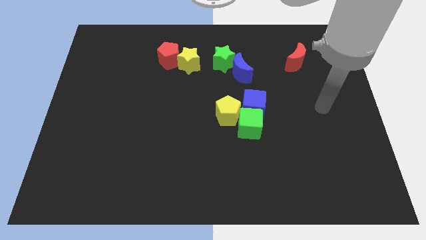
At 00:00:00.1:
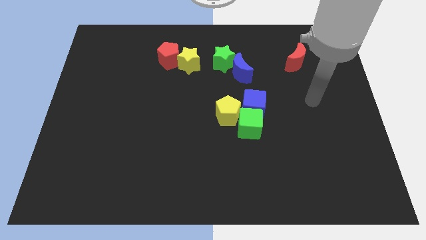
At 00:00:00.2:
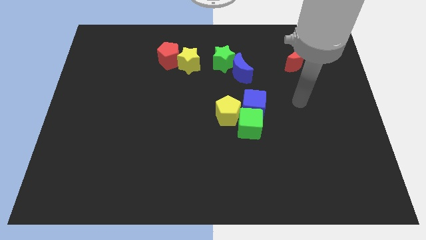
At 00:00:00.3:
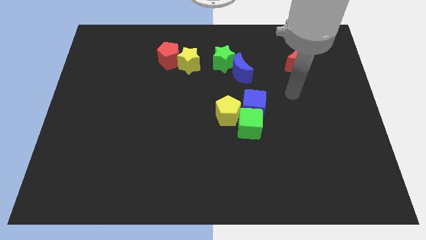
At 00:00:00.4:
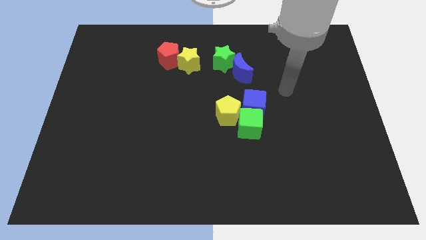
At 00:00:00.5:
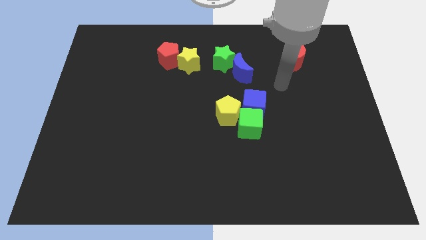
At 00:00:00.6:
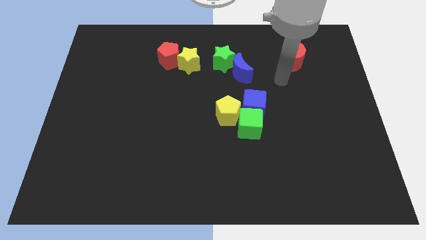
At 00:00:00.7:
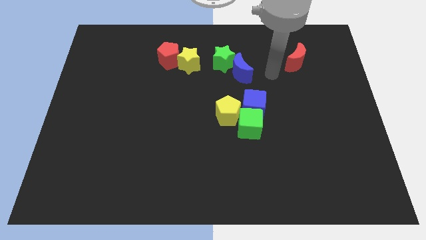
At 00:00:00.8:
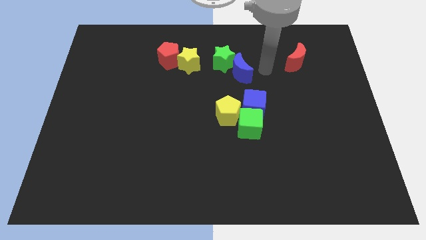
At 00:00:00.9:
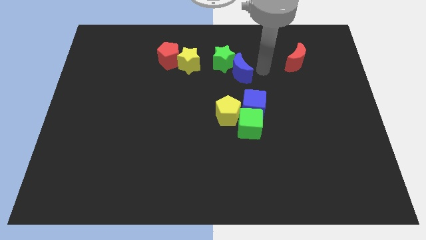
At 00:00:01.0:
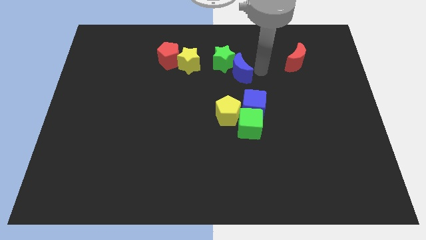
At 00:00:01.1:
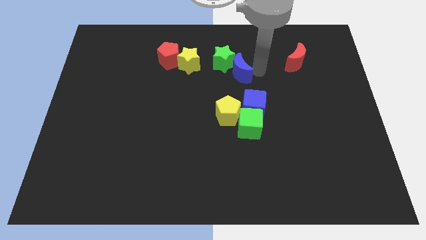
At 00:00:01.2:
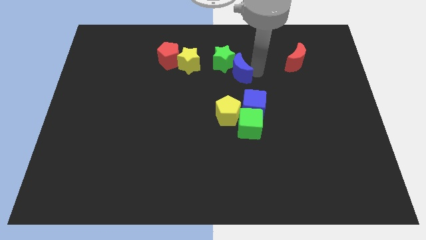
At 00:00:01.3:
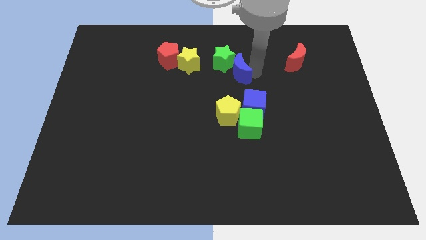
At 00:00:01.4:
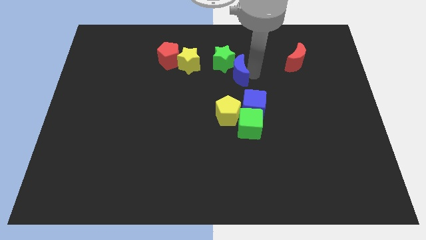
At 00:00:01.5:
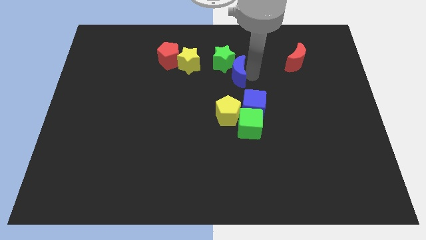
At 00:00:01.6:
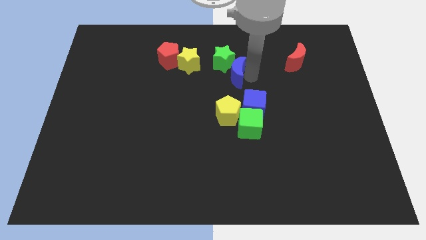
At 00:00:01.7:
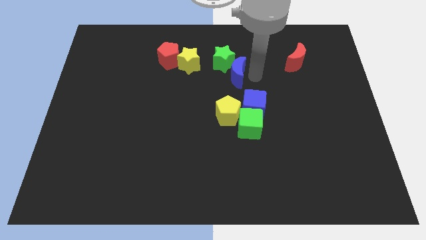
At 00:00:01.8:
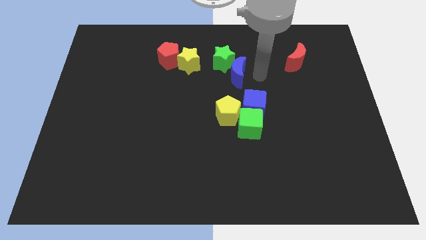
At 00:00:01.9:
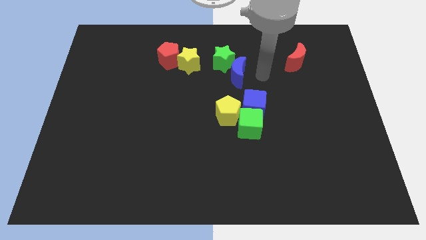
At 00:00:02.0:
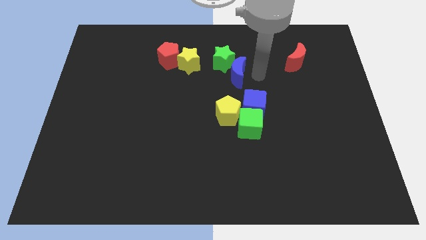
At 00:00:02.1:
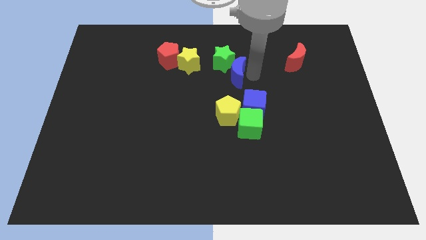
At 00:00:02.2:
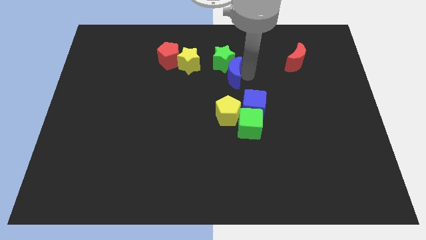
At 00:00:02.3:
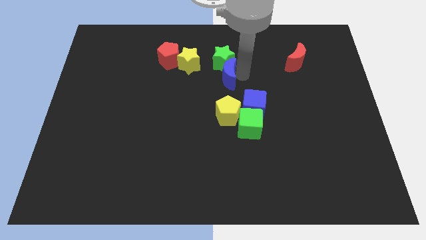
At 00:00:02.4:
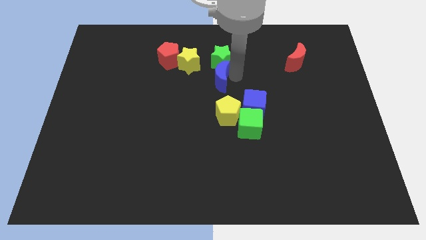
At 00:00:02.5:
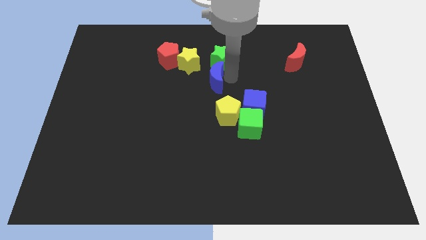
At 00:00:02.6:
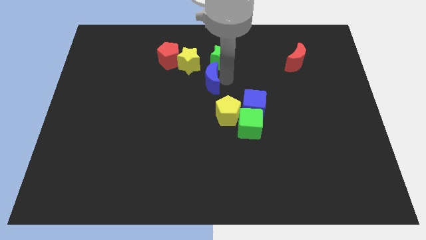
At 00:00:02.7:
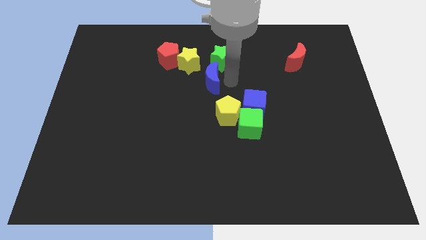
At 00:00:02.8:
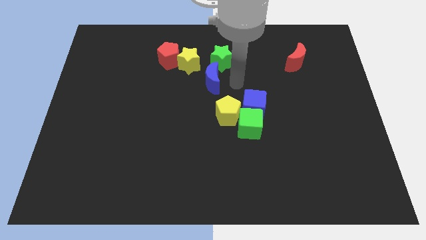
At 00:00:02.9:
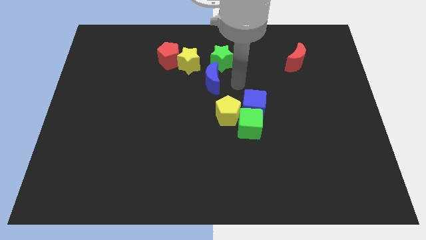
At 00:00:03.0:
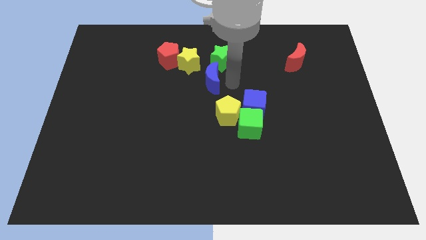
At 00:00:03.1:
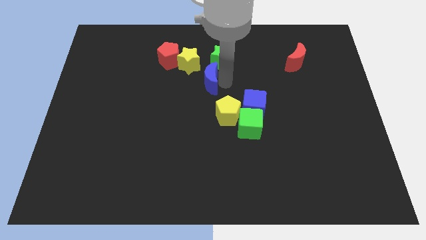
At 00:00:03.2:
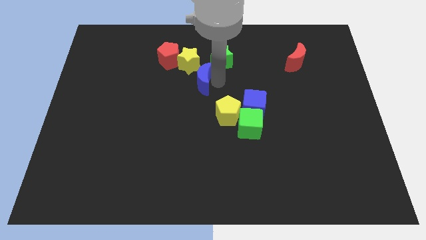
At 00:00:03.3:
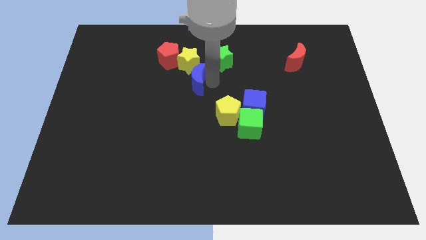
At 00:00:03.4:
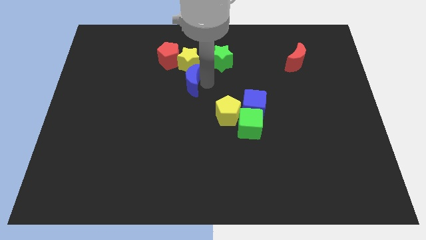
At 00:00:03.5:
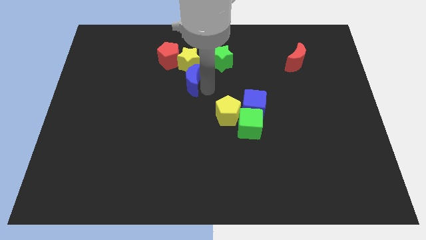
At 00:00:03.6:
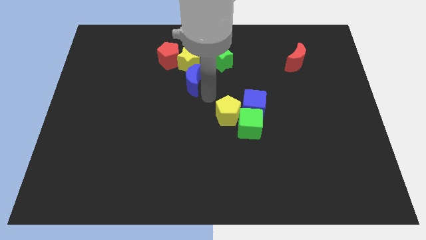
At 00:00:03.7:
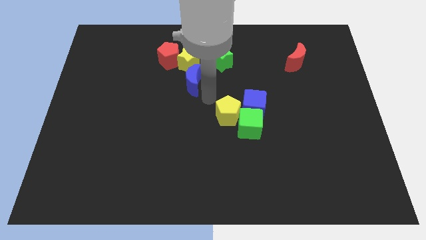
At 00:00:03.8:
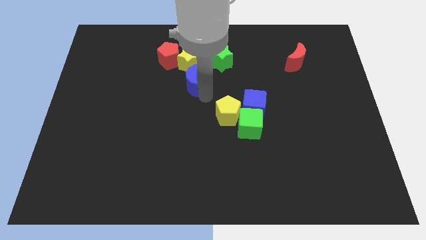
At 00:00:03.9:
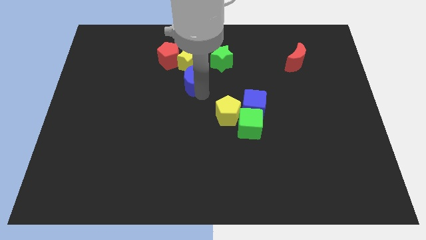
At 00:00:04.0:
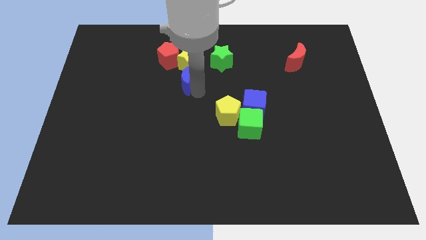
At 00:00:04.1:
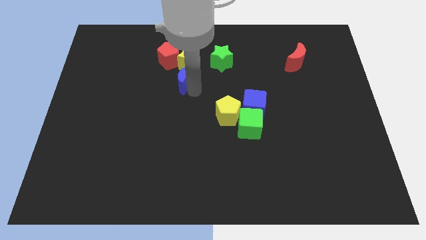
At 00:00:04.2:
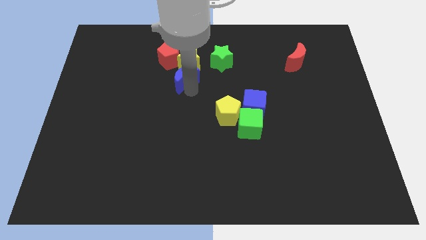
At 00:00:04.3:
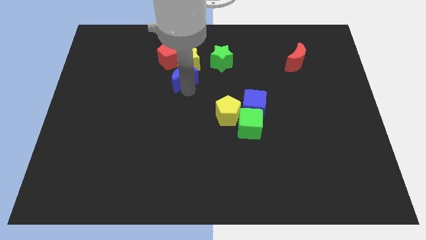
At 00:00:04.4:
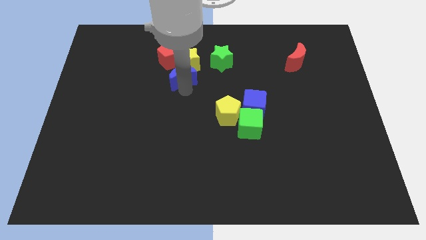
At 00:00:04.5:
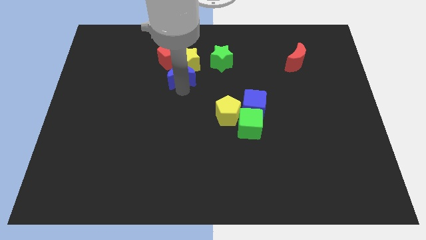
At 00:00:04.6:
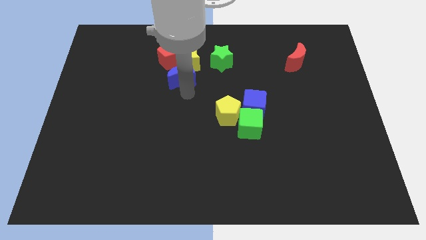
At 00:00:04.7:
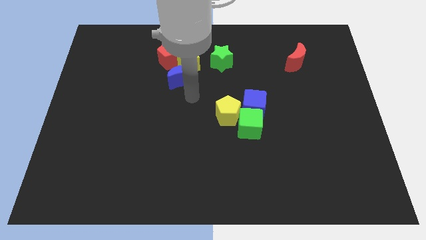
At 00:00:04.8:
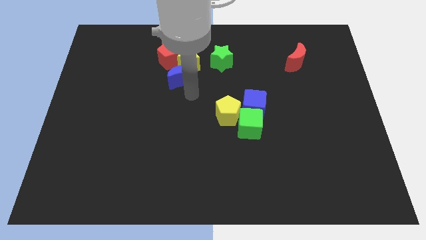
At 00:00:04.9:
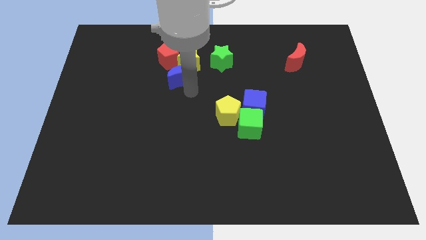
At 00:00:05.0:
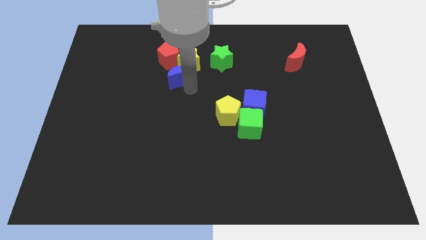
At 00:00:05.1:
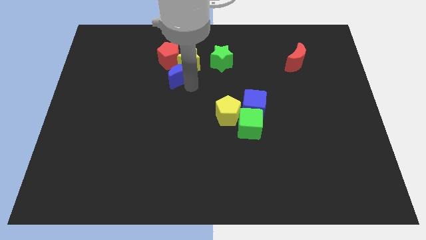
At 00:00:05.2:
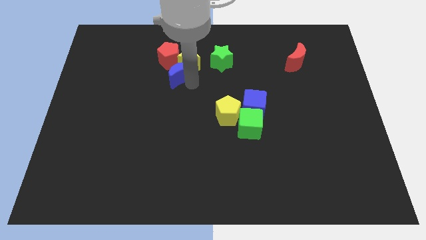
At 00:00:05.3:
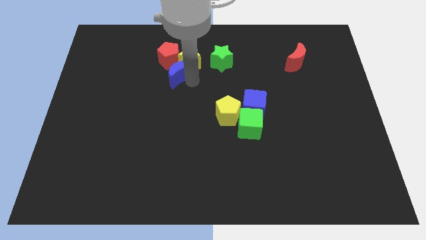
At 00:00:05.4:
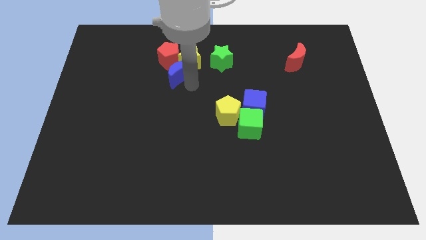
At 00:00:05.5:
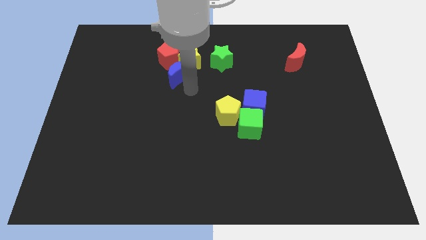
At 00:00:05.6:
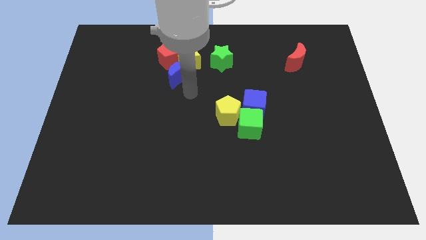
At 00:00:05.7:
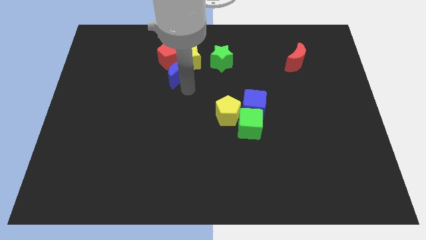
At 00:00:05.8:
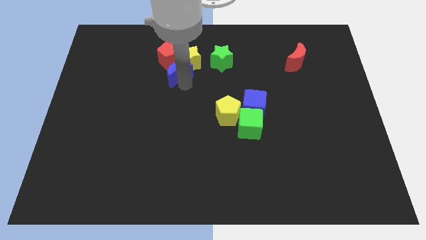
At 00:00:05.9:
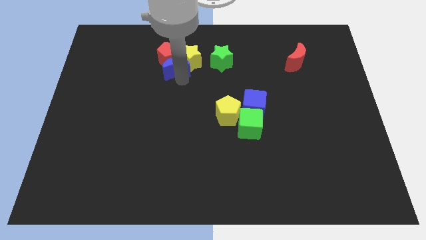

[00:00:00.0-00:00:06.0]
put the blue moon next to the red pentagon

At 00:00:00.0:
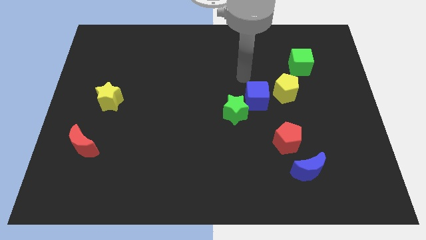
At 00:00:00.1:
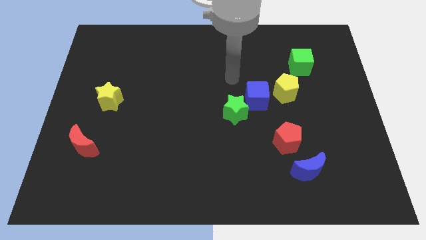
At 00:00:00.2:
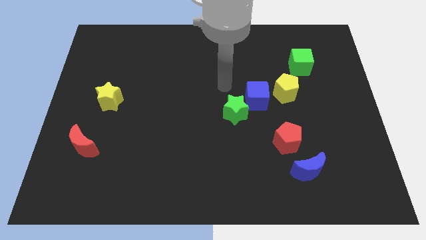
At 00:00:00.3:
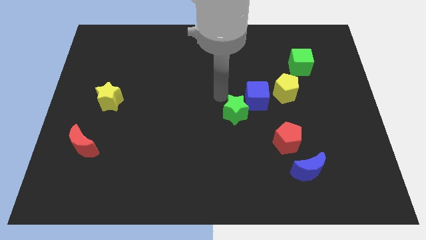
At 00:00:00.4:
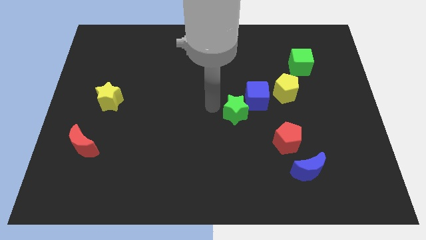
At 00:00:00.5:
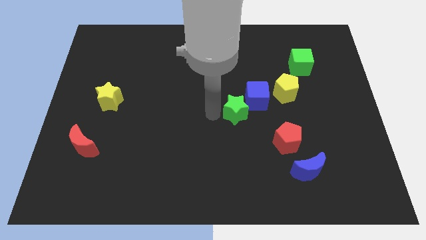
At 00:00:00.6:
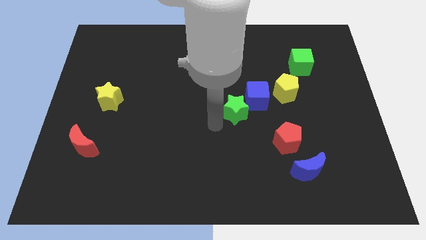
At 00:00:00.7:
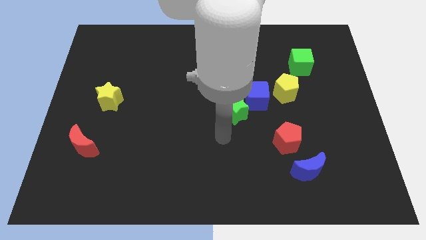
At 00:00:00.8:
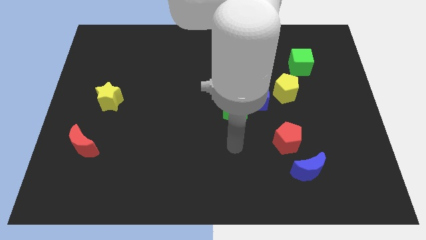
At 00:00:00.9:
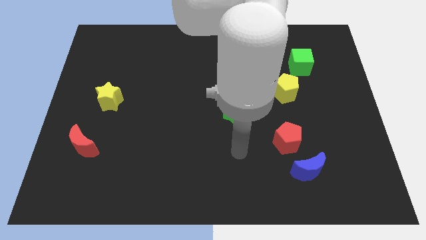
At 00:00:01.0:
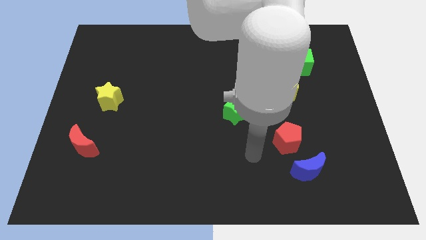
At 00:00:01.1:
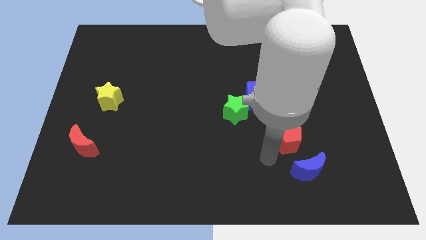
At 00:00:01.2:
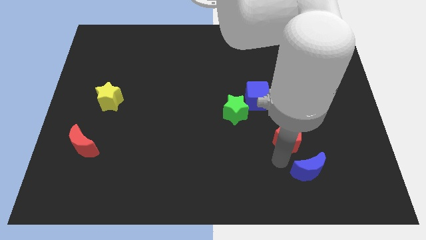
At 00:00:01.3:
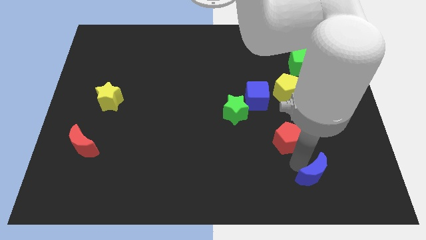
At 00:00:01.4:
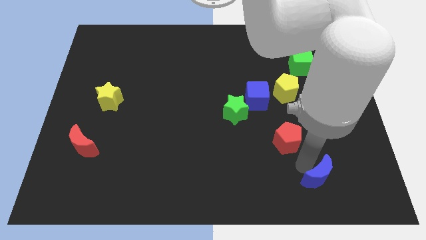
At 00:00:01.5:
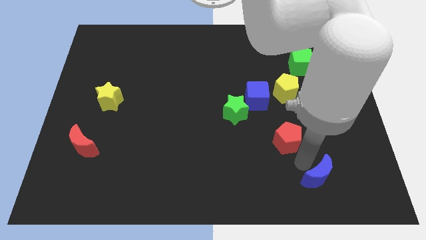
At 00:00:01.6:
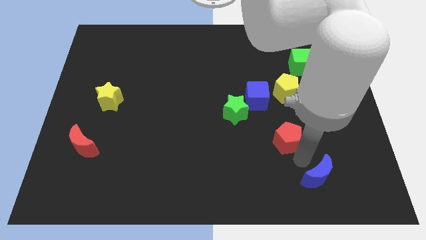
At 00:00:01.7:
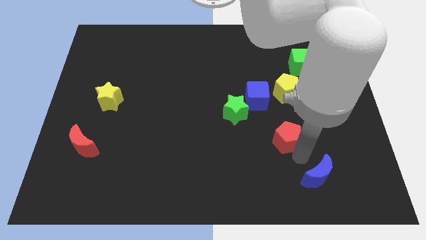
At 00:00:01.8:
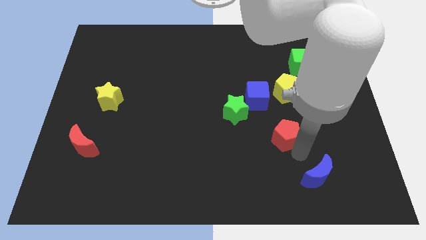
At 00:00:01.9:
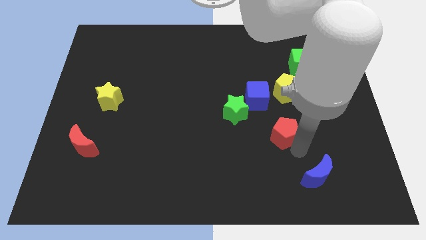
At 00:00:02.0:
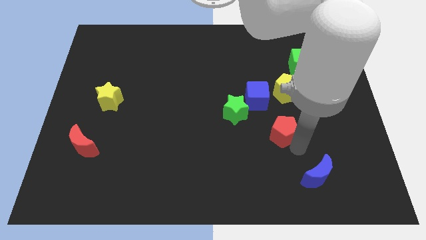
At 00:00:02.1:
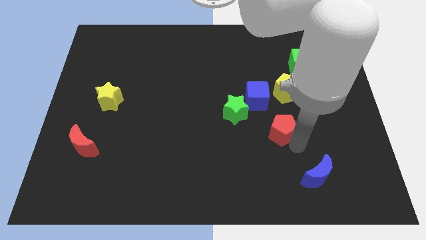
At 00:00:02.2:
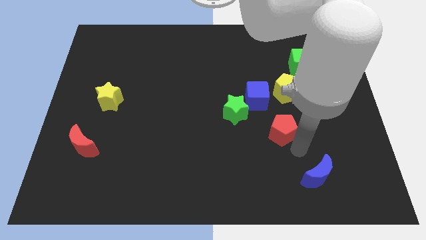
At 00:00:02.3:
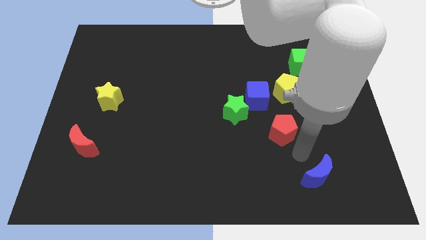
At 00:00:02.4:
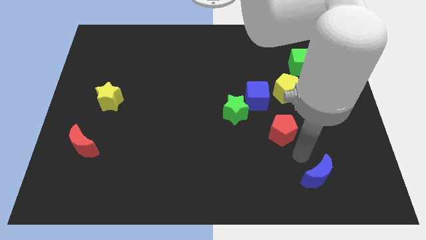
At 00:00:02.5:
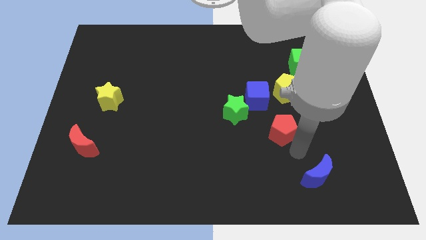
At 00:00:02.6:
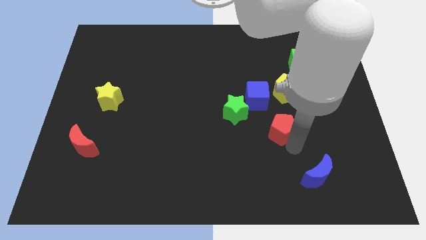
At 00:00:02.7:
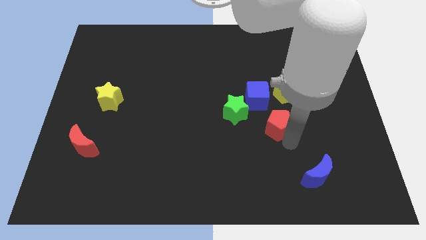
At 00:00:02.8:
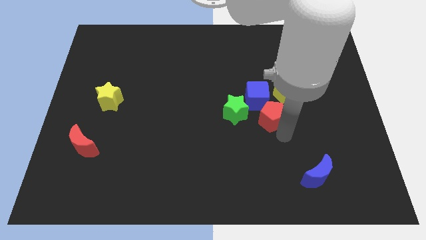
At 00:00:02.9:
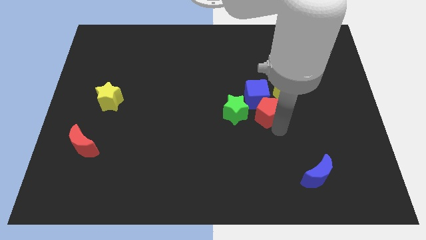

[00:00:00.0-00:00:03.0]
slide the red pentagon towards the blue cube
